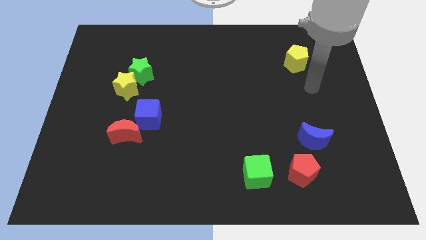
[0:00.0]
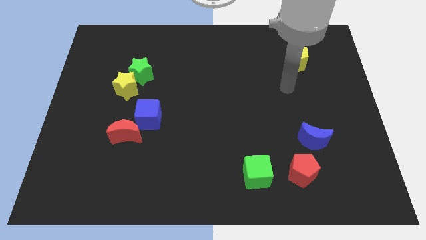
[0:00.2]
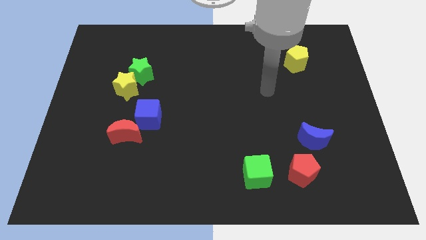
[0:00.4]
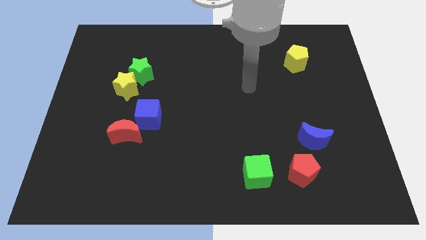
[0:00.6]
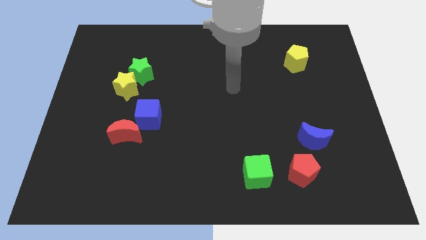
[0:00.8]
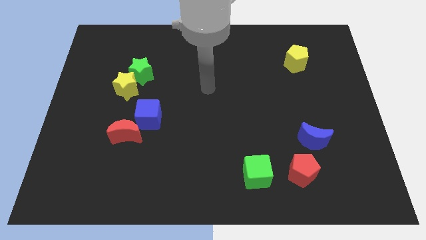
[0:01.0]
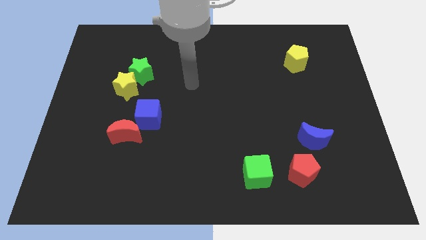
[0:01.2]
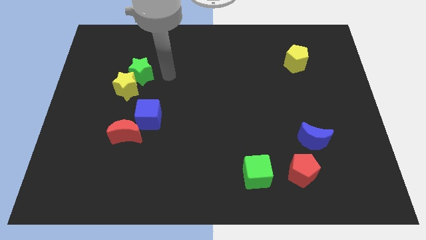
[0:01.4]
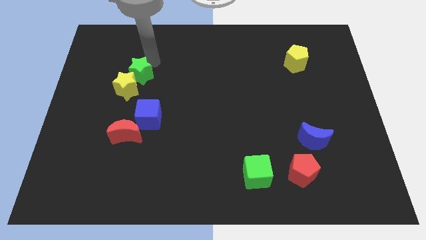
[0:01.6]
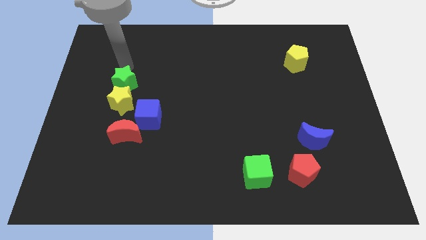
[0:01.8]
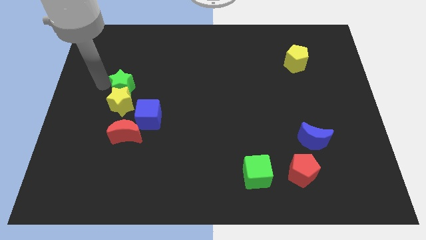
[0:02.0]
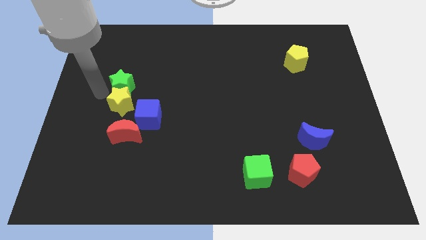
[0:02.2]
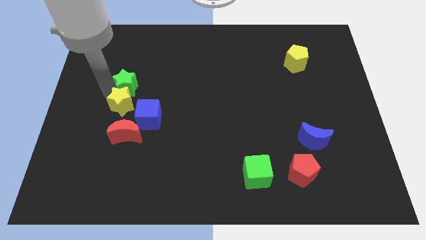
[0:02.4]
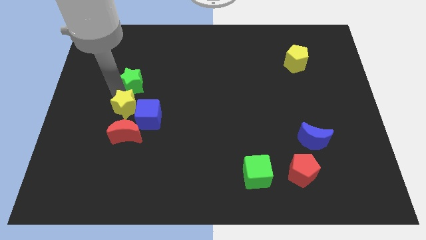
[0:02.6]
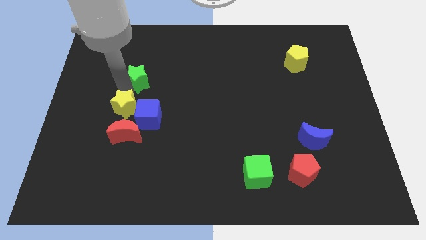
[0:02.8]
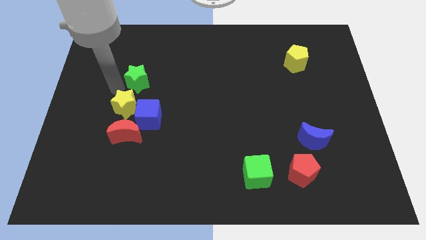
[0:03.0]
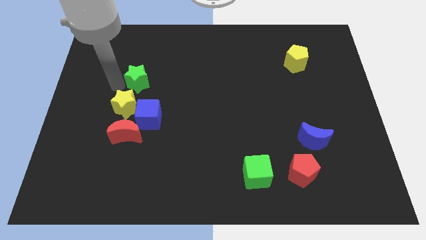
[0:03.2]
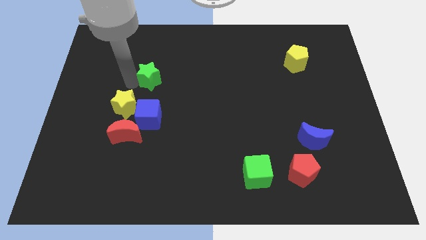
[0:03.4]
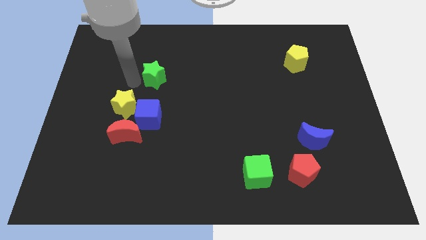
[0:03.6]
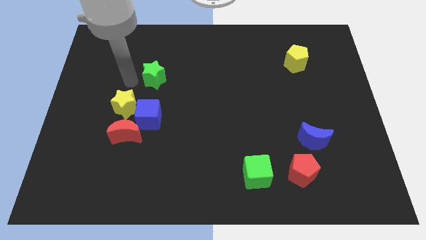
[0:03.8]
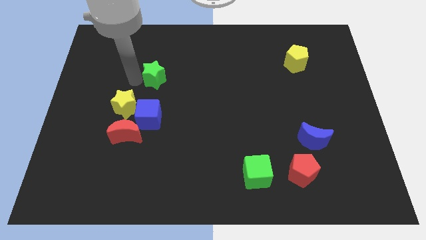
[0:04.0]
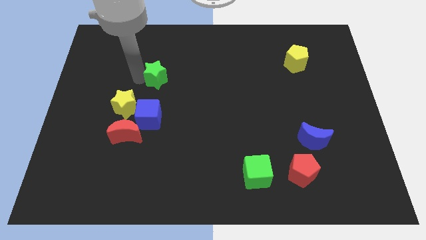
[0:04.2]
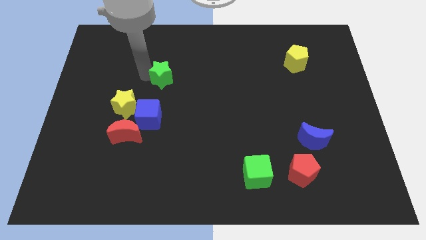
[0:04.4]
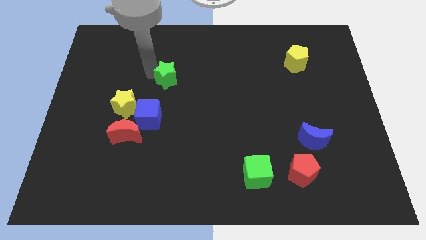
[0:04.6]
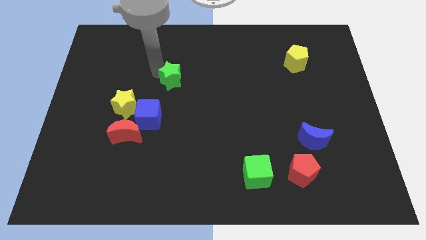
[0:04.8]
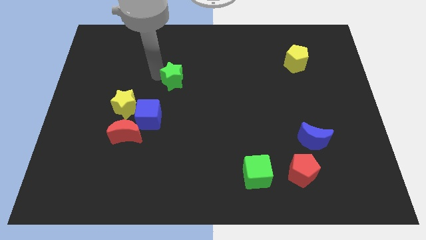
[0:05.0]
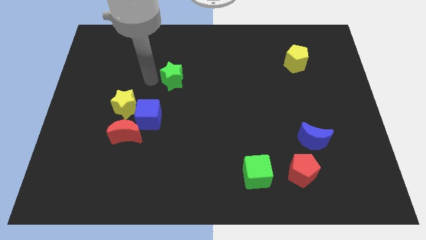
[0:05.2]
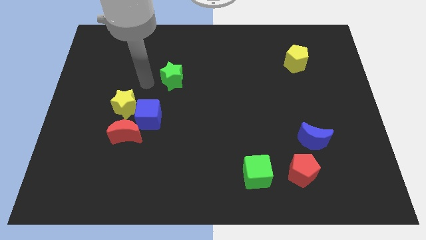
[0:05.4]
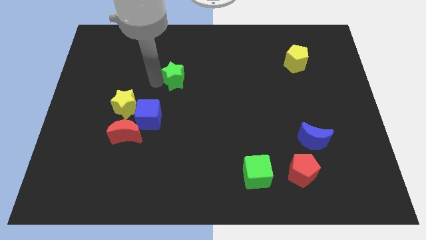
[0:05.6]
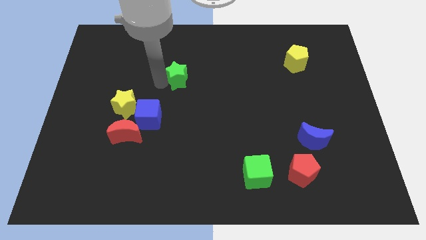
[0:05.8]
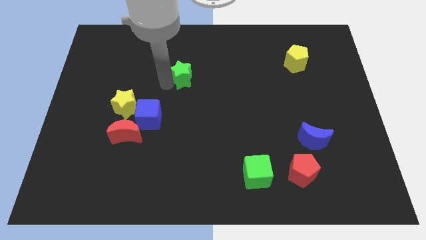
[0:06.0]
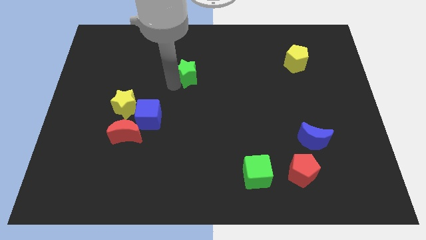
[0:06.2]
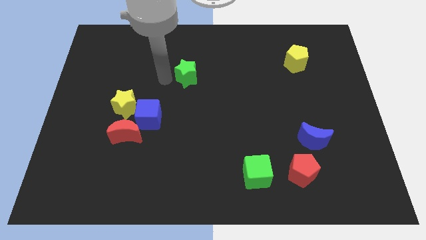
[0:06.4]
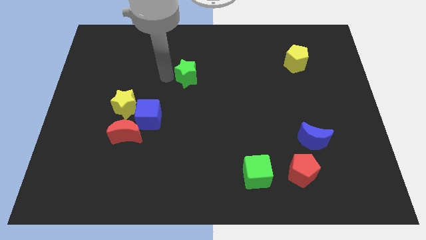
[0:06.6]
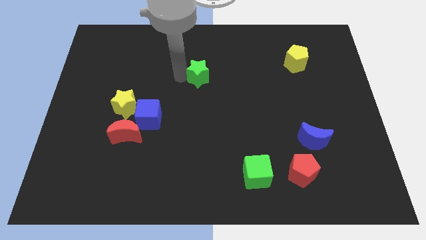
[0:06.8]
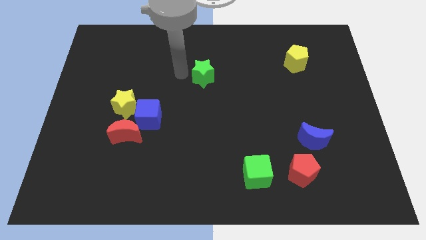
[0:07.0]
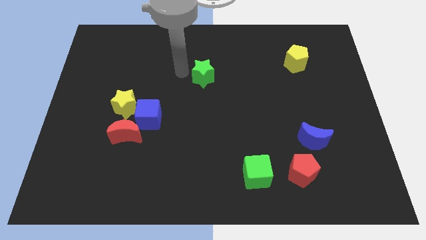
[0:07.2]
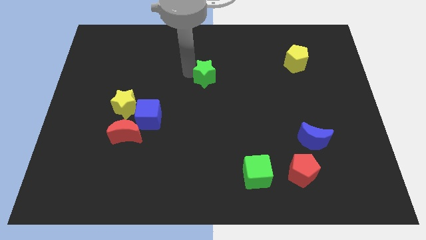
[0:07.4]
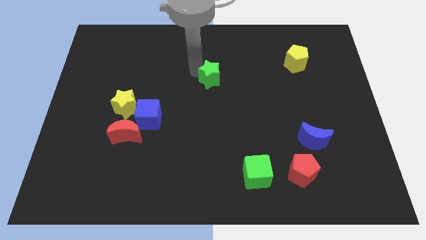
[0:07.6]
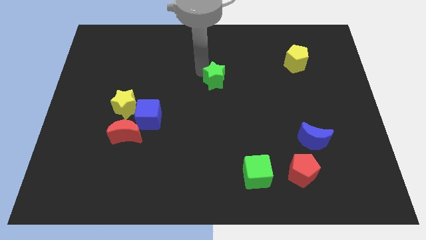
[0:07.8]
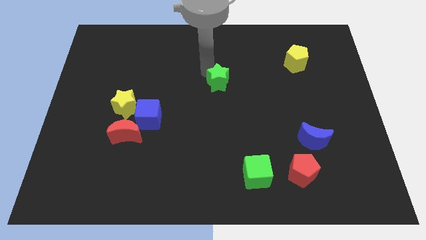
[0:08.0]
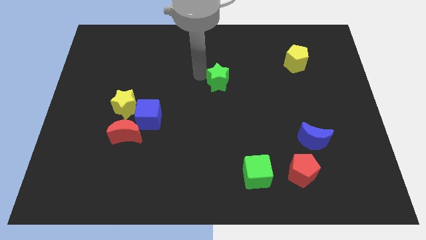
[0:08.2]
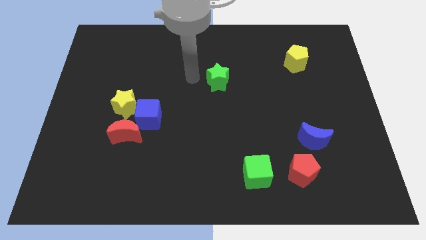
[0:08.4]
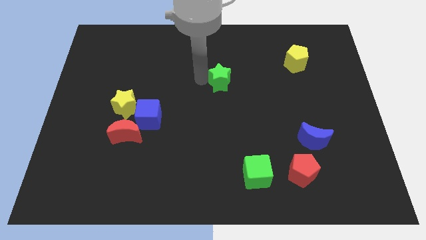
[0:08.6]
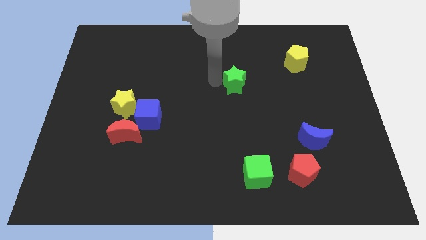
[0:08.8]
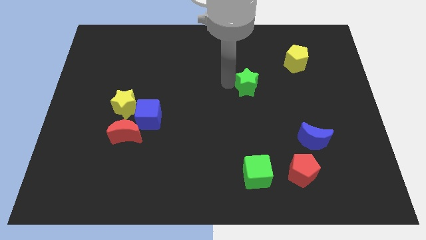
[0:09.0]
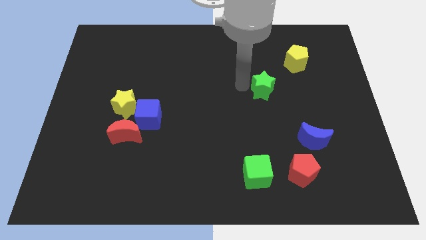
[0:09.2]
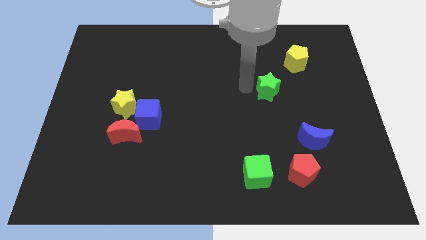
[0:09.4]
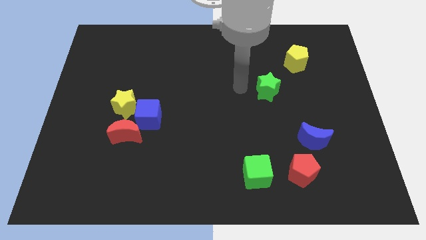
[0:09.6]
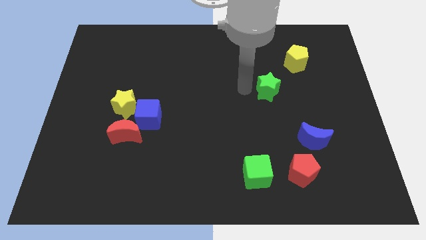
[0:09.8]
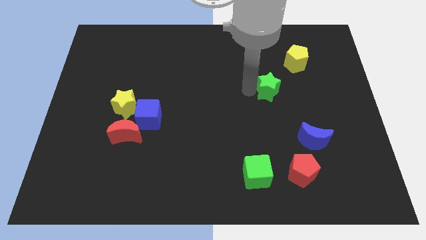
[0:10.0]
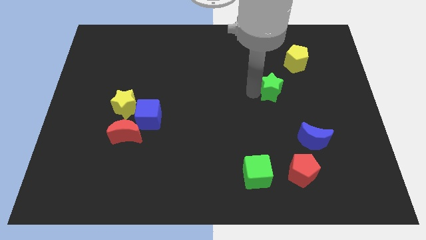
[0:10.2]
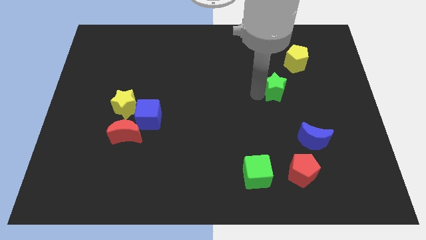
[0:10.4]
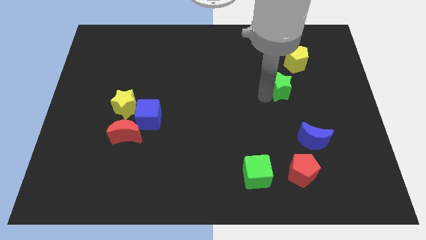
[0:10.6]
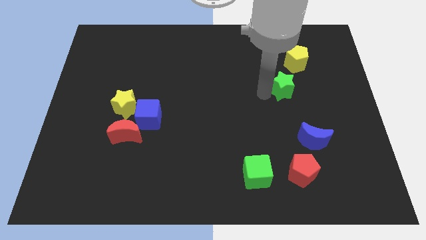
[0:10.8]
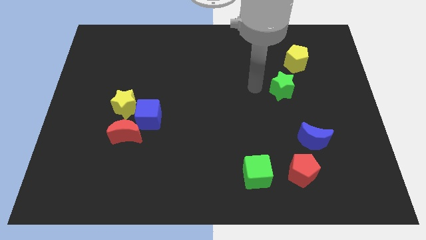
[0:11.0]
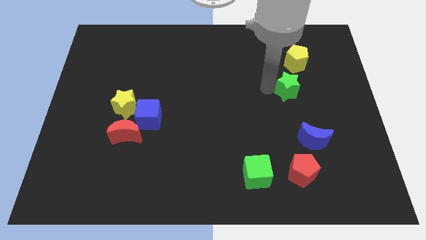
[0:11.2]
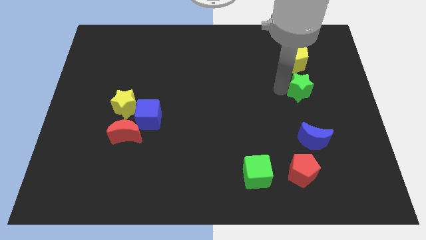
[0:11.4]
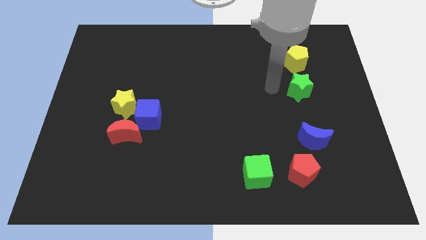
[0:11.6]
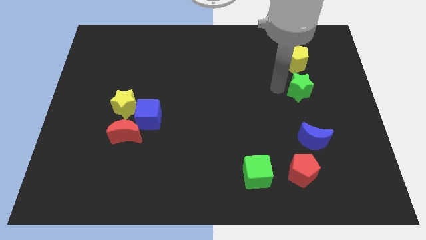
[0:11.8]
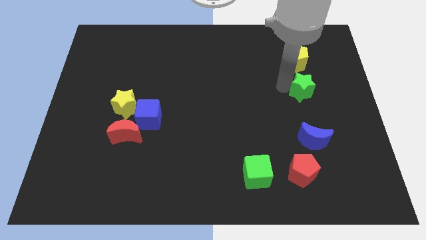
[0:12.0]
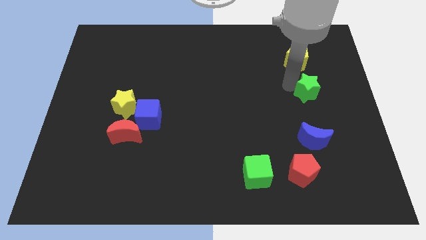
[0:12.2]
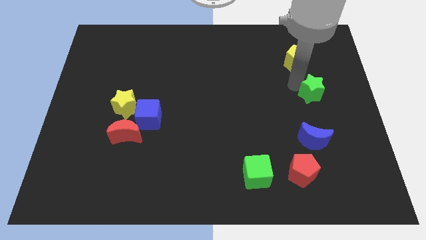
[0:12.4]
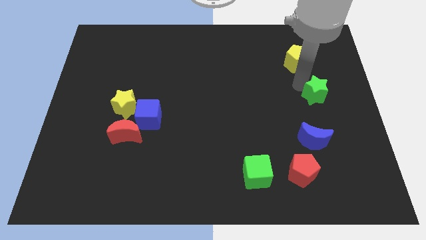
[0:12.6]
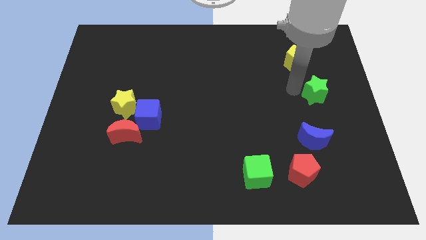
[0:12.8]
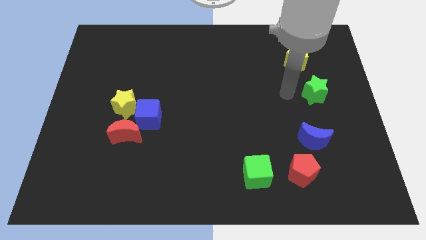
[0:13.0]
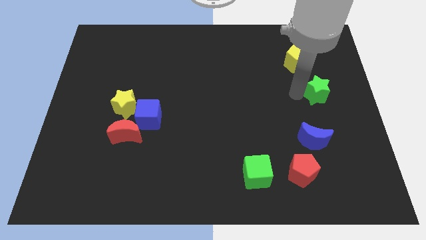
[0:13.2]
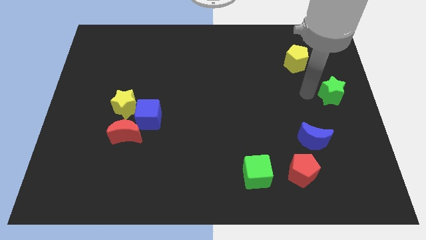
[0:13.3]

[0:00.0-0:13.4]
slide the green star to the right side of the board
